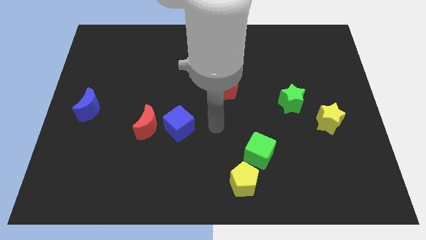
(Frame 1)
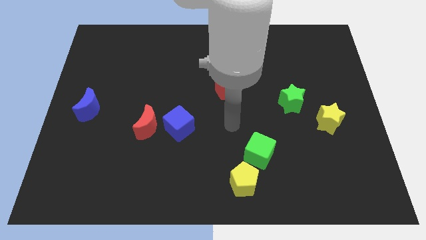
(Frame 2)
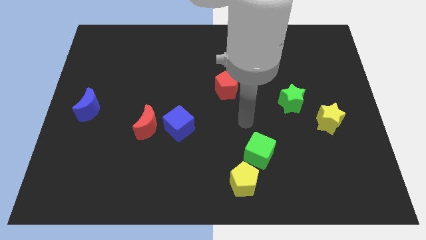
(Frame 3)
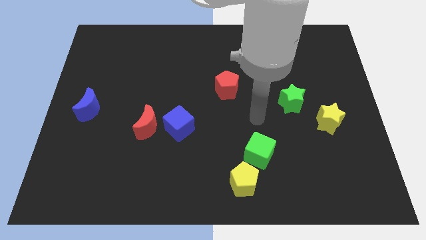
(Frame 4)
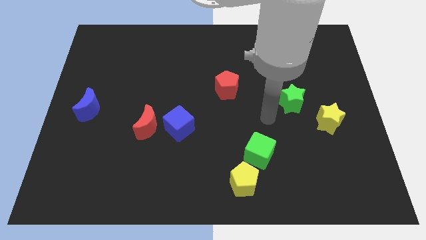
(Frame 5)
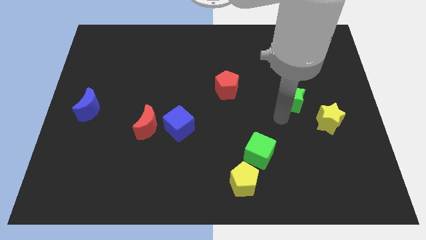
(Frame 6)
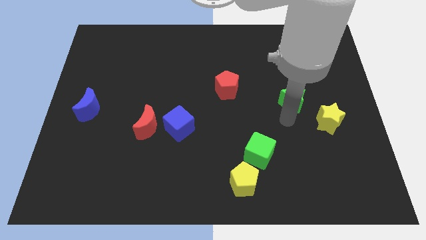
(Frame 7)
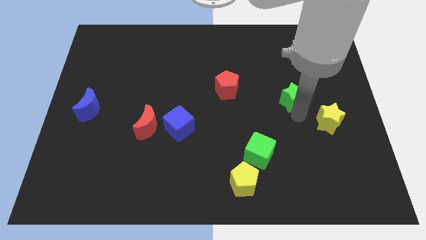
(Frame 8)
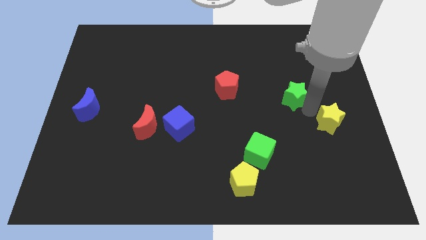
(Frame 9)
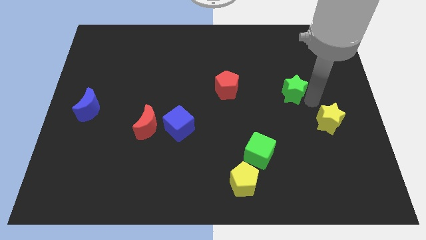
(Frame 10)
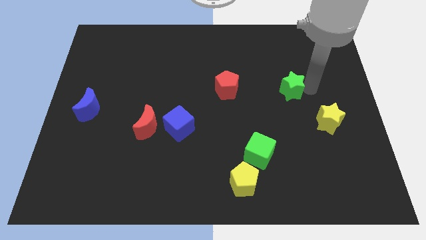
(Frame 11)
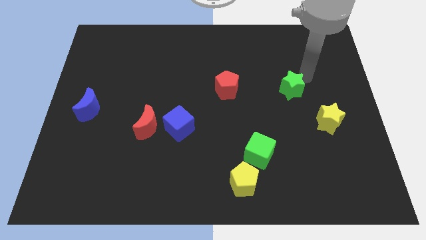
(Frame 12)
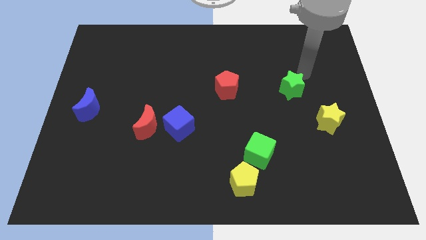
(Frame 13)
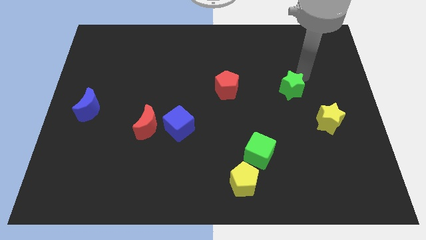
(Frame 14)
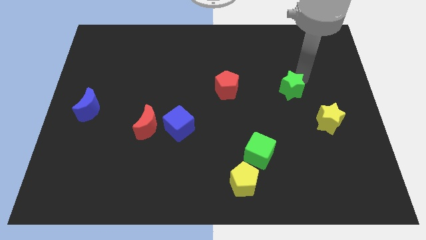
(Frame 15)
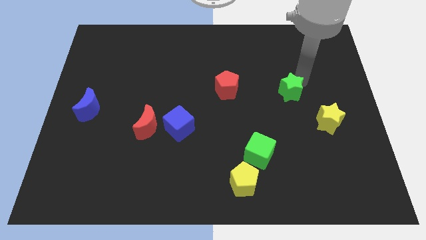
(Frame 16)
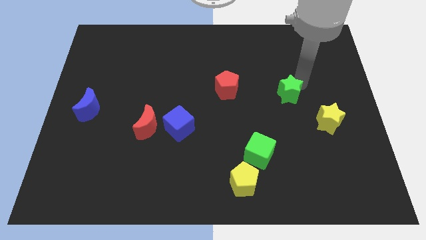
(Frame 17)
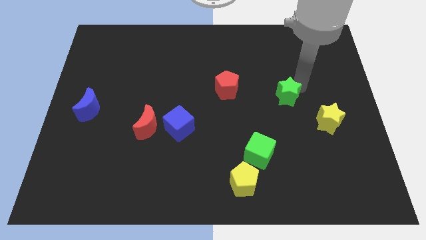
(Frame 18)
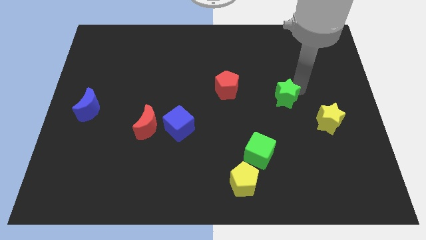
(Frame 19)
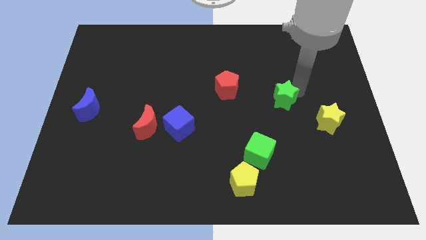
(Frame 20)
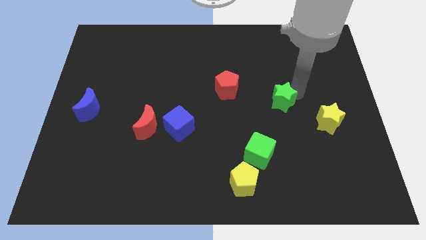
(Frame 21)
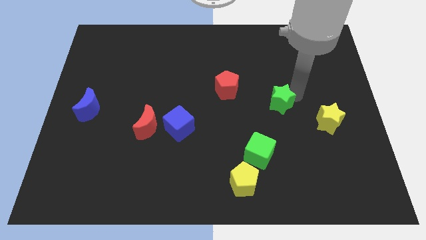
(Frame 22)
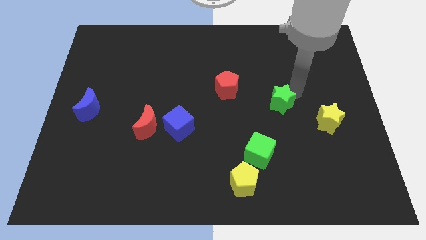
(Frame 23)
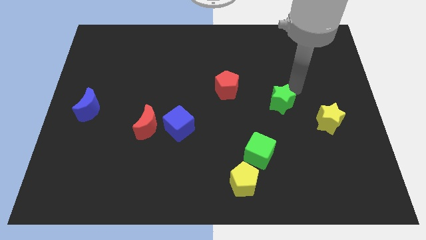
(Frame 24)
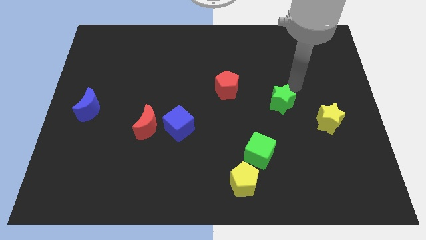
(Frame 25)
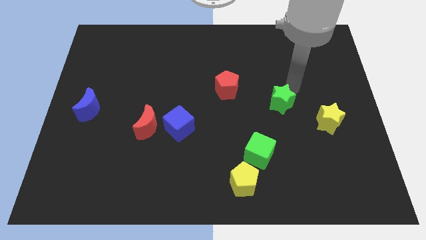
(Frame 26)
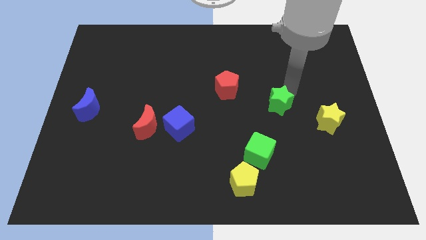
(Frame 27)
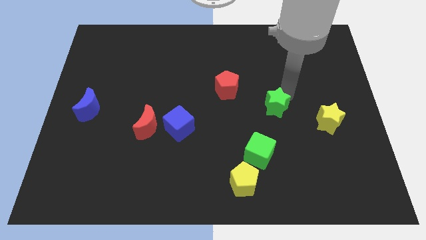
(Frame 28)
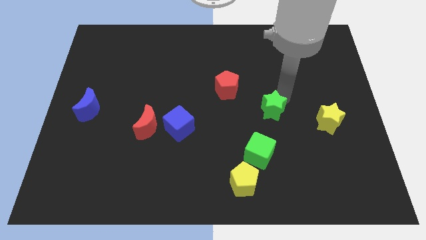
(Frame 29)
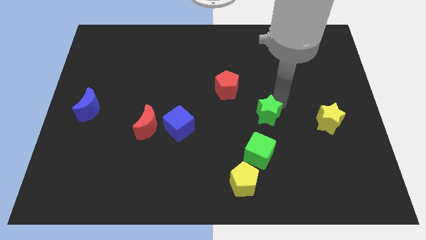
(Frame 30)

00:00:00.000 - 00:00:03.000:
slide the green star diagonally downwards and left a little

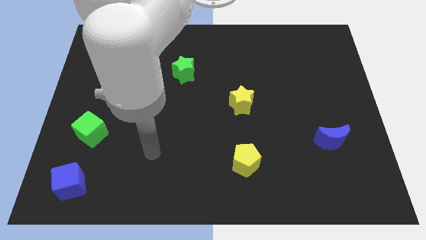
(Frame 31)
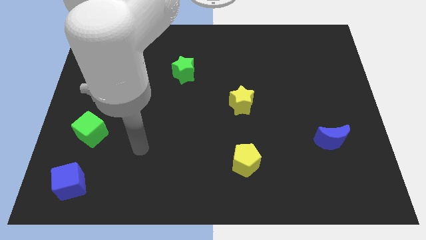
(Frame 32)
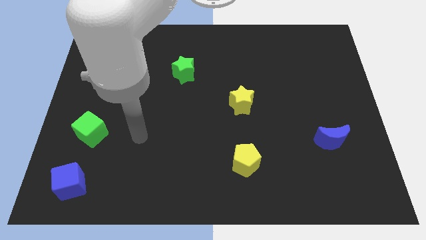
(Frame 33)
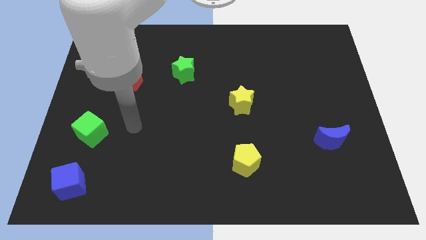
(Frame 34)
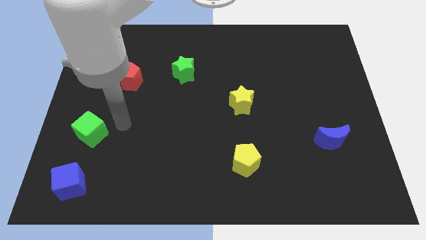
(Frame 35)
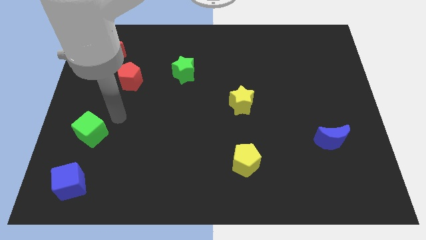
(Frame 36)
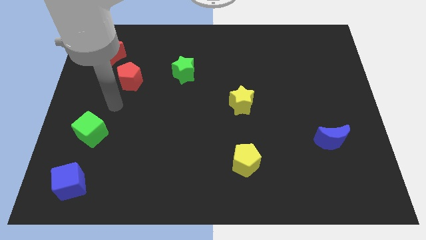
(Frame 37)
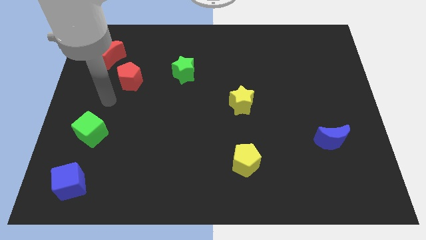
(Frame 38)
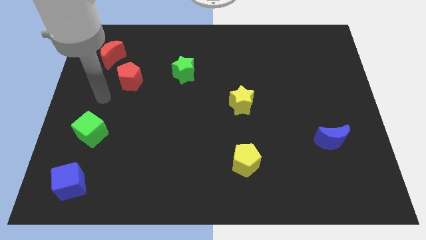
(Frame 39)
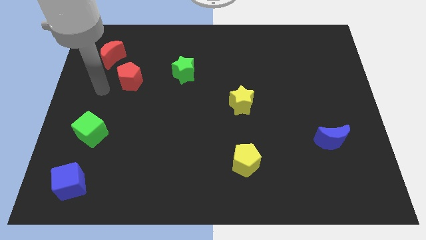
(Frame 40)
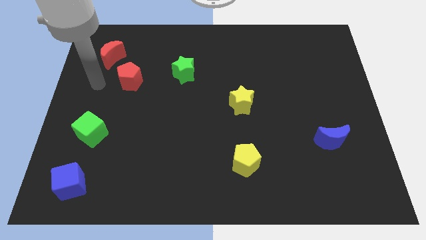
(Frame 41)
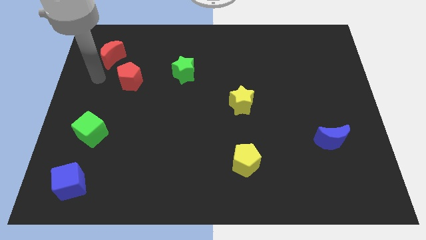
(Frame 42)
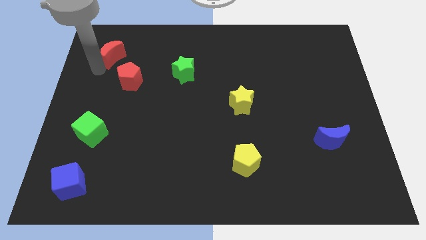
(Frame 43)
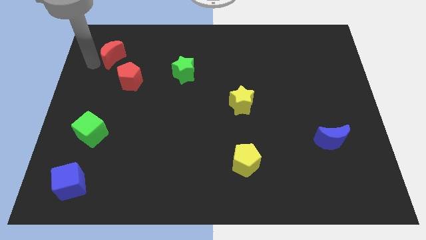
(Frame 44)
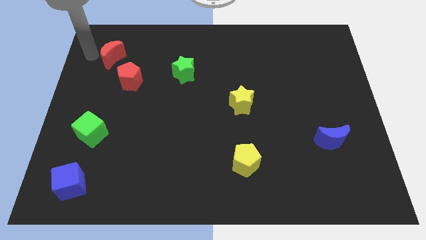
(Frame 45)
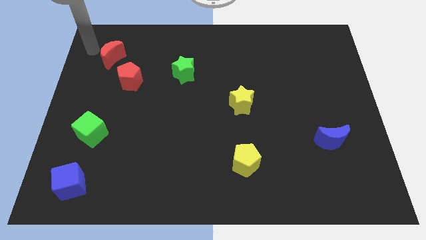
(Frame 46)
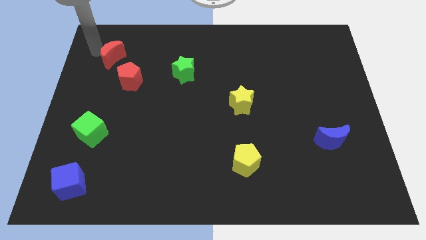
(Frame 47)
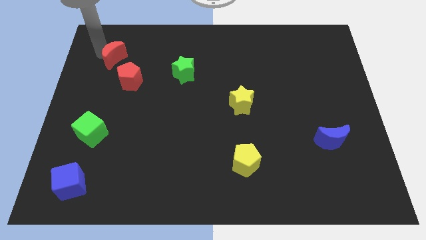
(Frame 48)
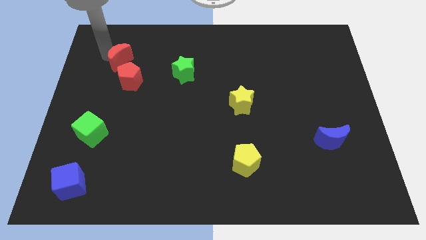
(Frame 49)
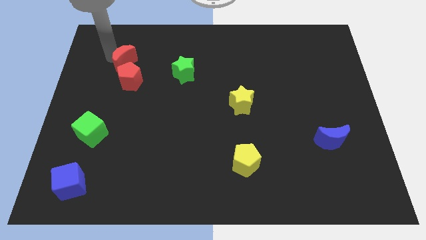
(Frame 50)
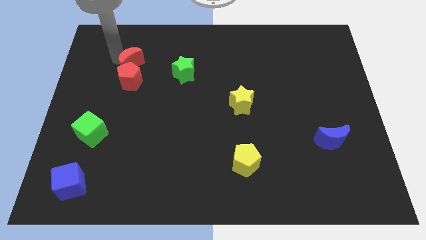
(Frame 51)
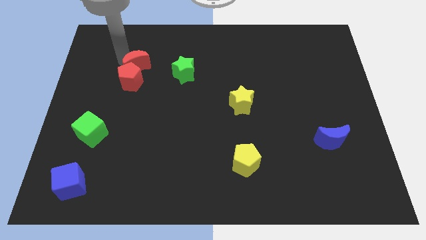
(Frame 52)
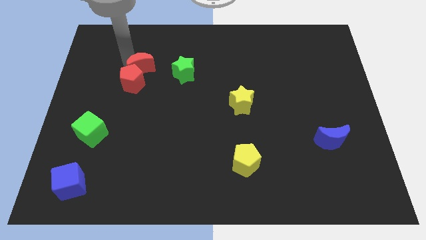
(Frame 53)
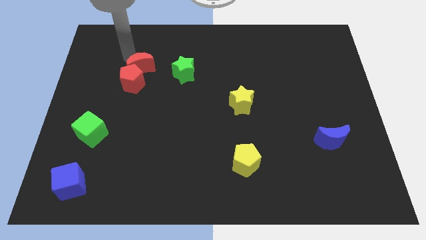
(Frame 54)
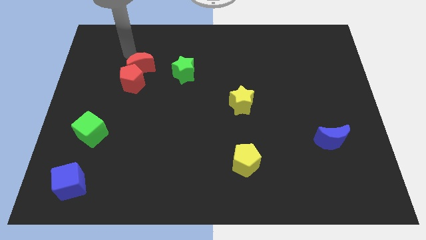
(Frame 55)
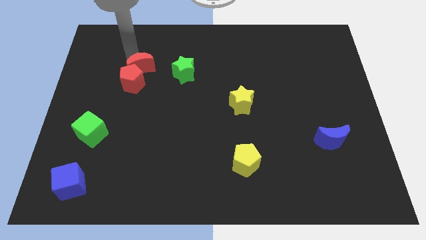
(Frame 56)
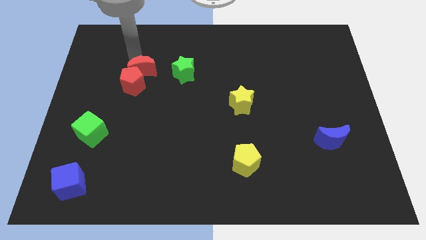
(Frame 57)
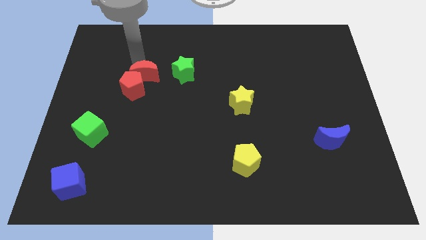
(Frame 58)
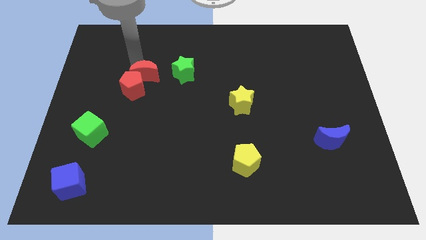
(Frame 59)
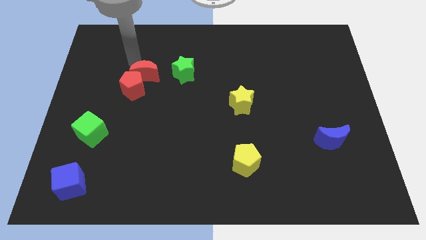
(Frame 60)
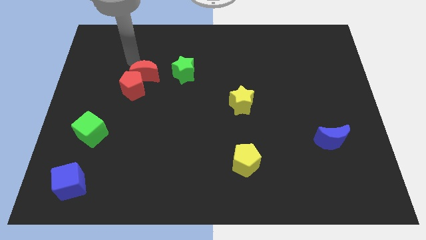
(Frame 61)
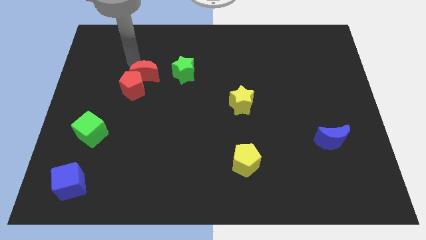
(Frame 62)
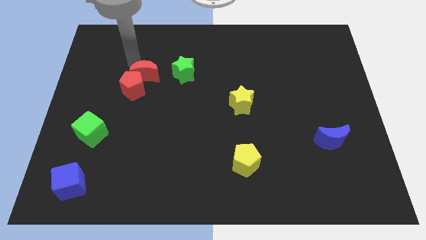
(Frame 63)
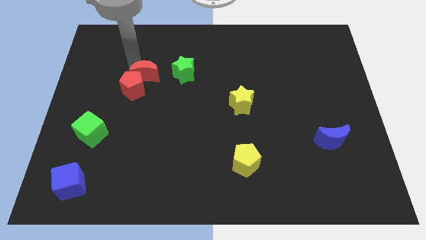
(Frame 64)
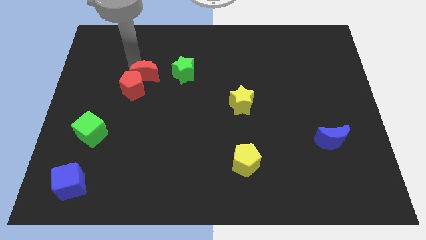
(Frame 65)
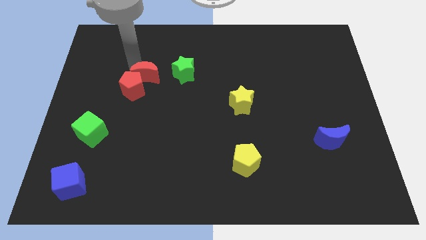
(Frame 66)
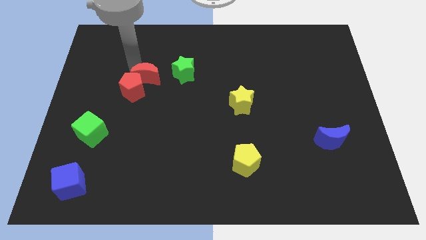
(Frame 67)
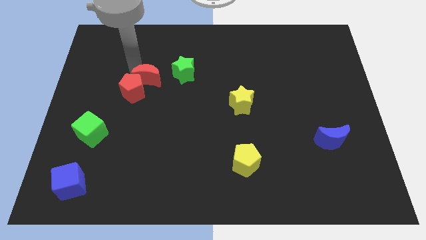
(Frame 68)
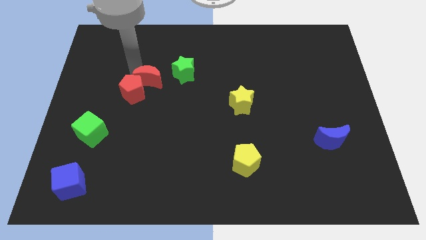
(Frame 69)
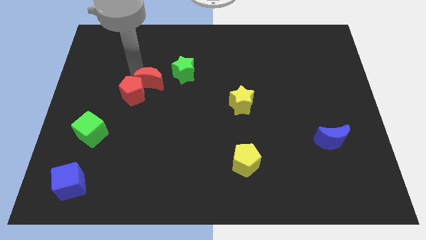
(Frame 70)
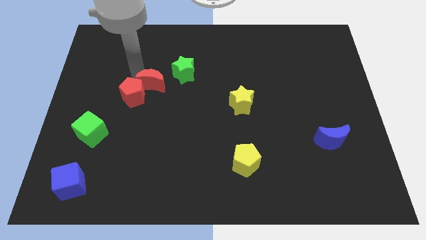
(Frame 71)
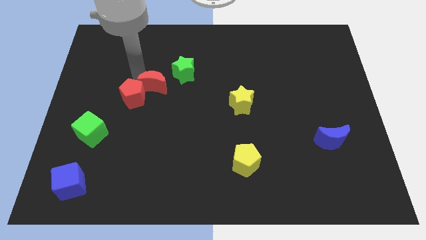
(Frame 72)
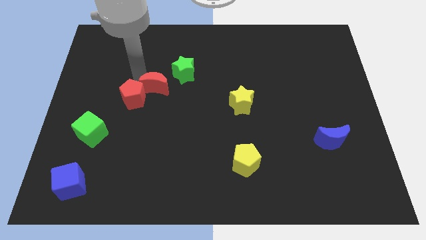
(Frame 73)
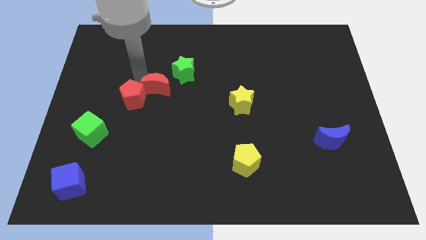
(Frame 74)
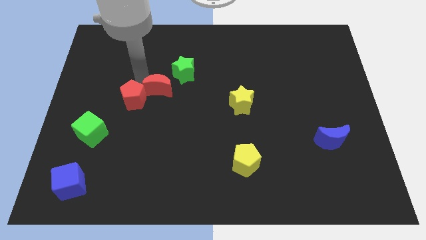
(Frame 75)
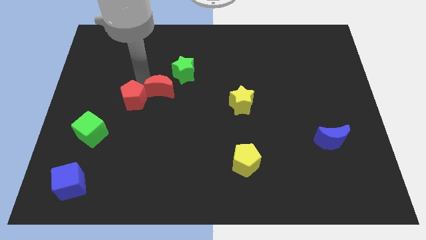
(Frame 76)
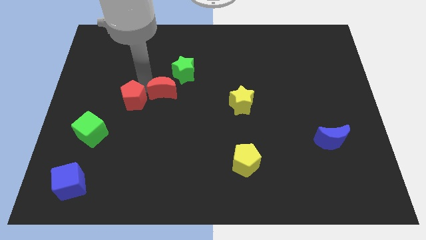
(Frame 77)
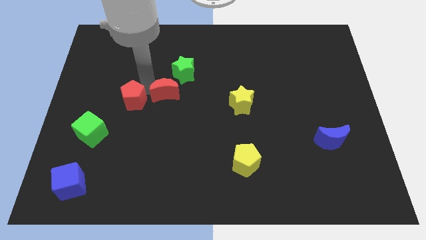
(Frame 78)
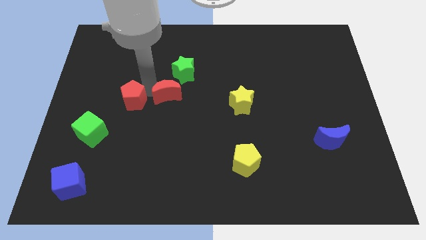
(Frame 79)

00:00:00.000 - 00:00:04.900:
push the red moon down and then to the right

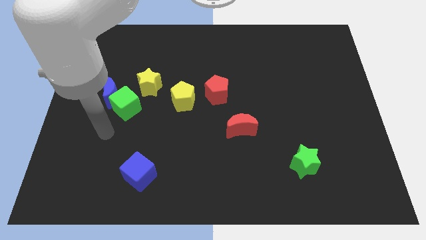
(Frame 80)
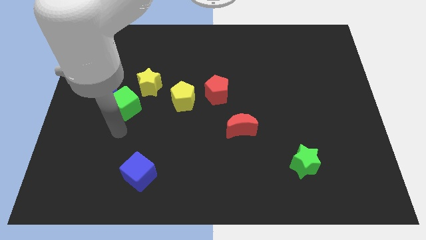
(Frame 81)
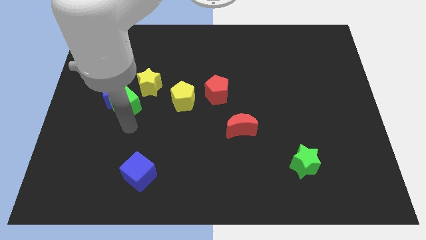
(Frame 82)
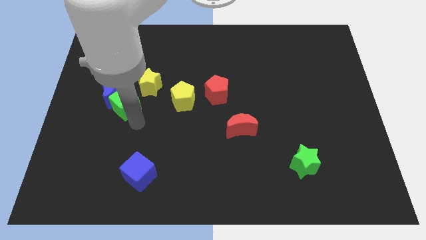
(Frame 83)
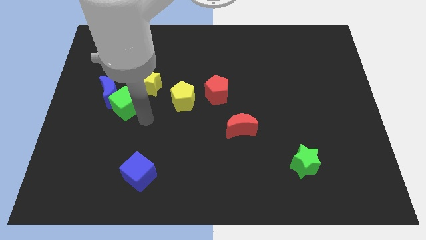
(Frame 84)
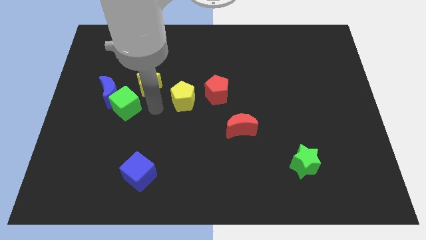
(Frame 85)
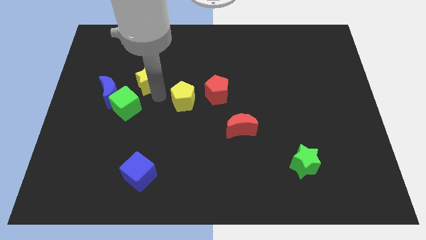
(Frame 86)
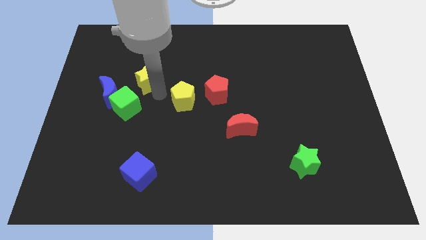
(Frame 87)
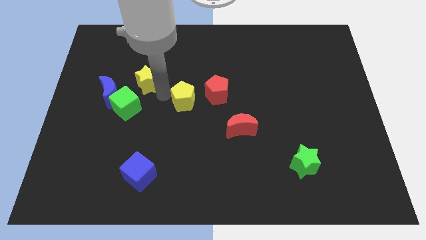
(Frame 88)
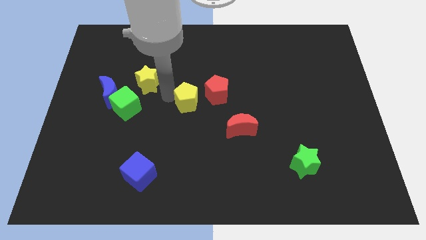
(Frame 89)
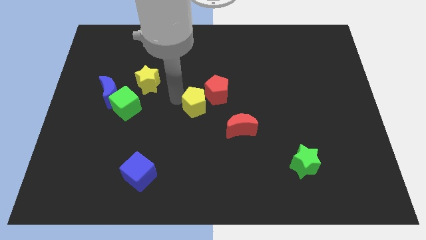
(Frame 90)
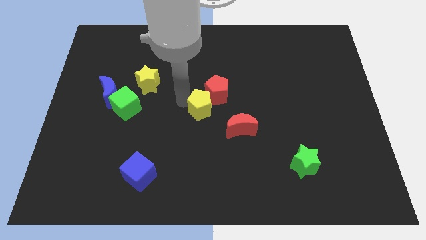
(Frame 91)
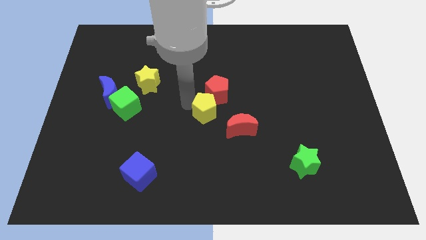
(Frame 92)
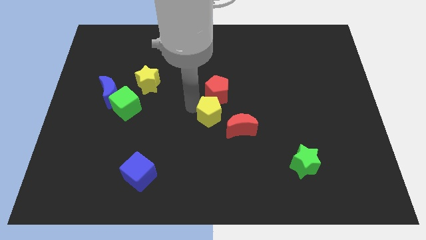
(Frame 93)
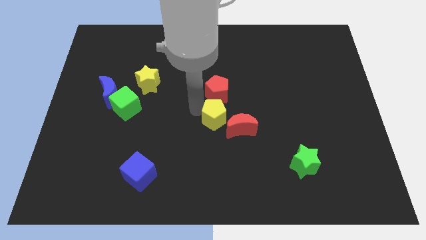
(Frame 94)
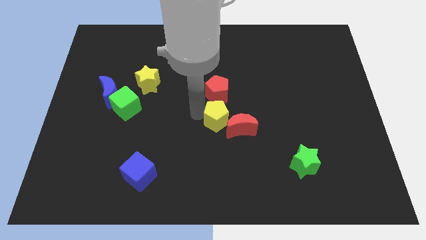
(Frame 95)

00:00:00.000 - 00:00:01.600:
slide the yellow pentagon slightly right
